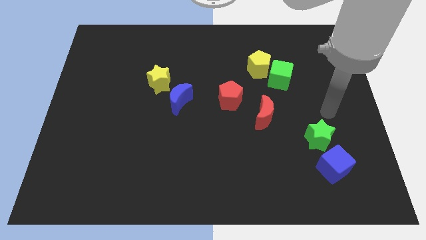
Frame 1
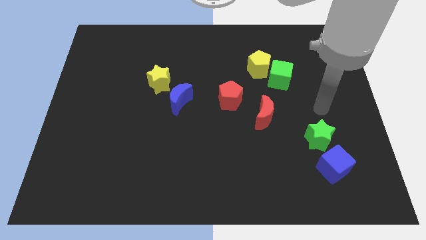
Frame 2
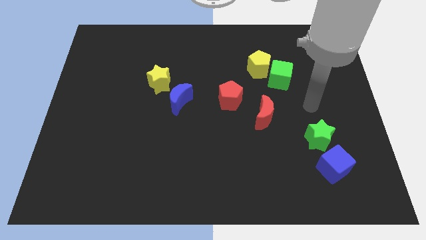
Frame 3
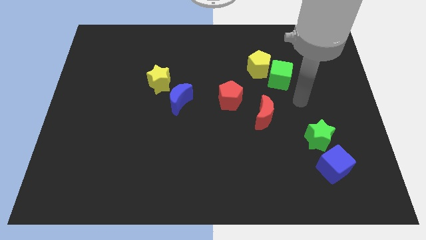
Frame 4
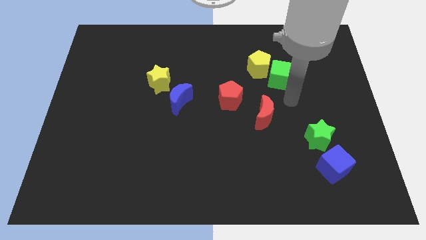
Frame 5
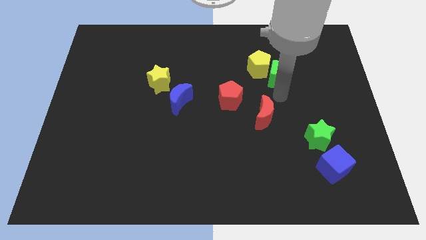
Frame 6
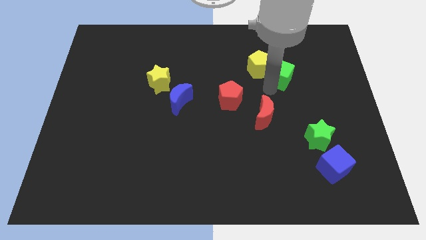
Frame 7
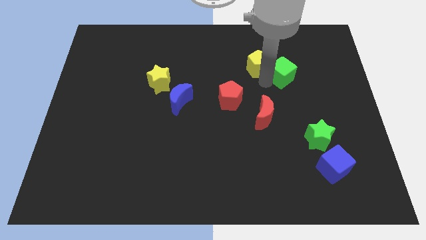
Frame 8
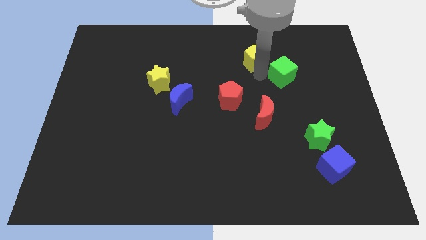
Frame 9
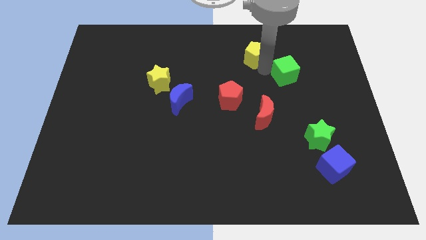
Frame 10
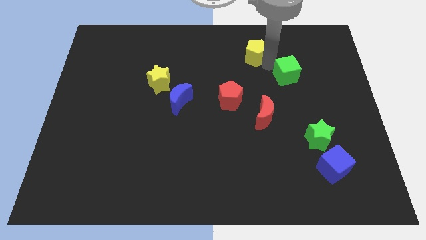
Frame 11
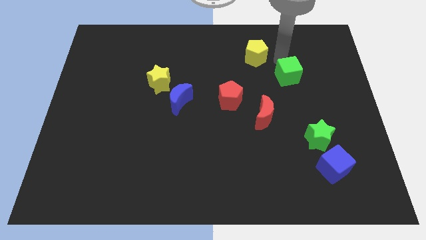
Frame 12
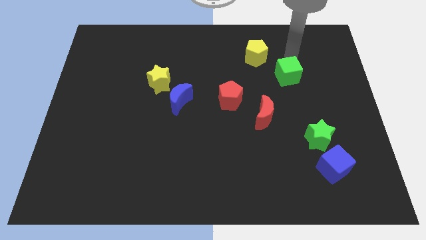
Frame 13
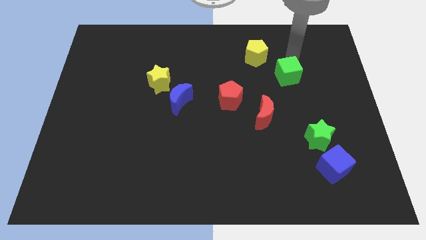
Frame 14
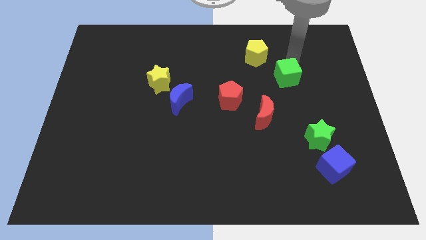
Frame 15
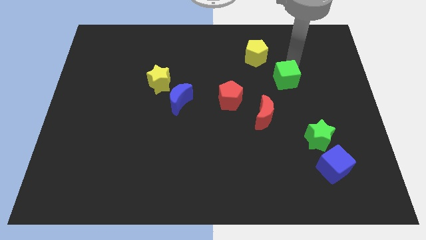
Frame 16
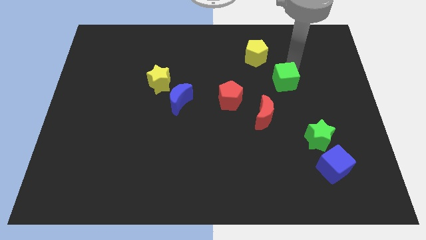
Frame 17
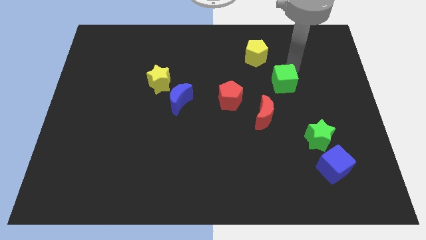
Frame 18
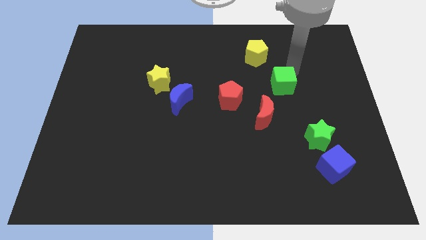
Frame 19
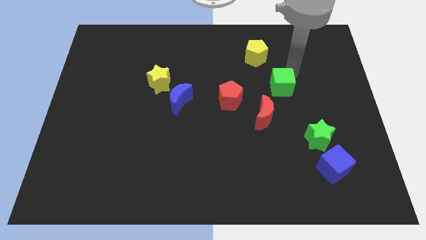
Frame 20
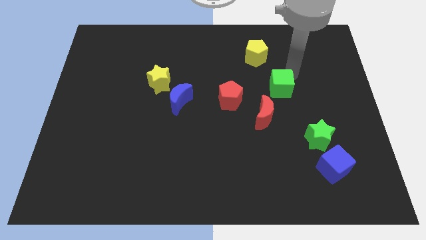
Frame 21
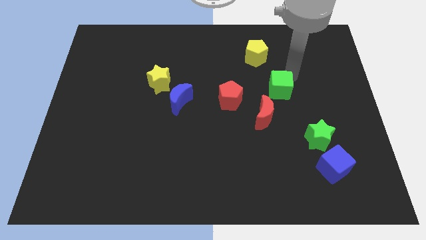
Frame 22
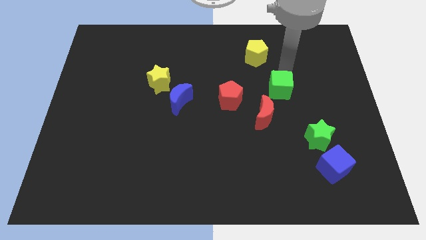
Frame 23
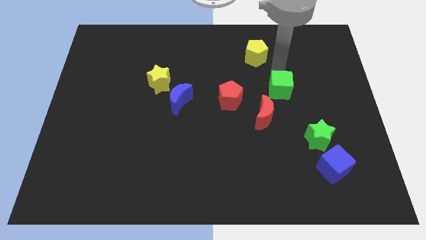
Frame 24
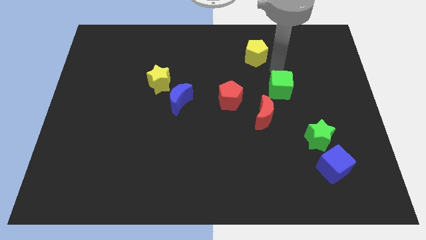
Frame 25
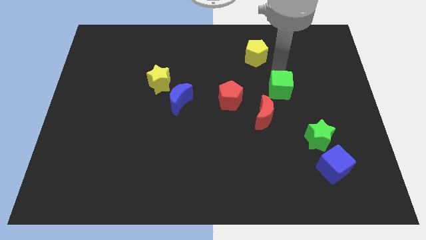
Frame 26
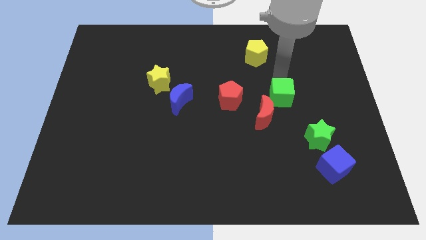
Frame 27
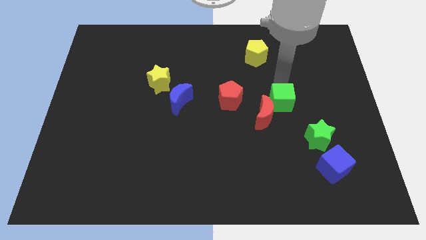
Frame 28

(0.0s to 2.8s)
slide the green cube a little down

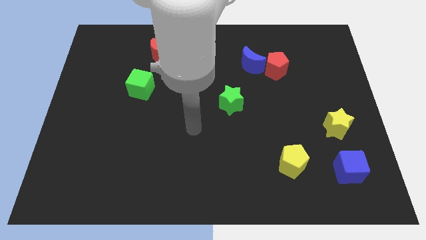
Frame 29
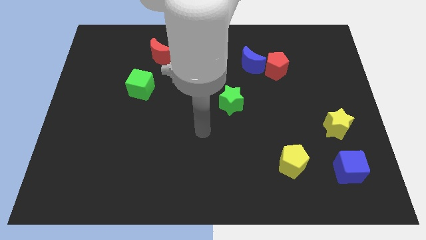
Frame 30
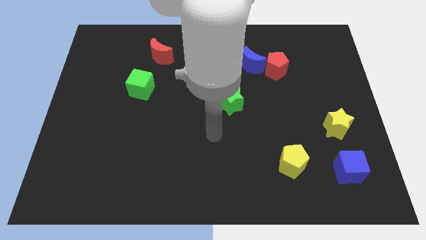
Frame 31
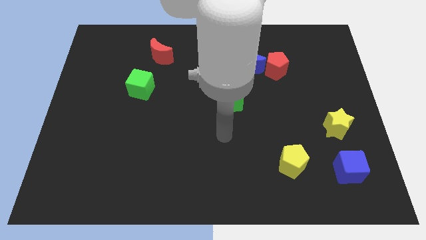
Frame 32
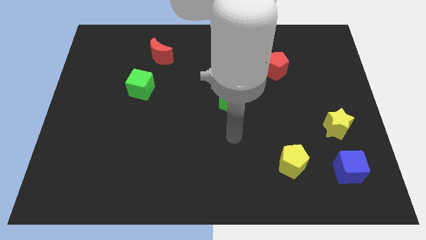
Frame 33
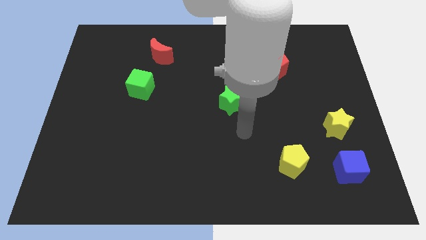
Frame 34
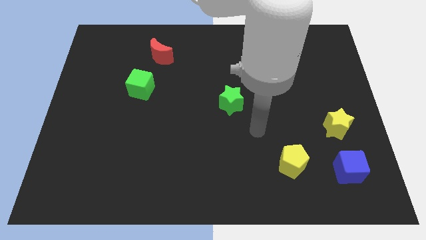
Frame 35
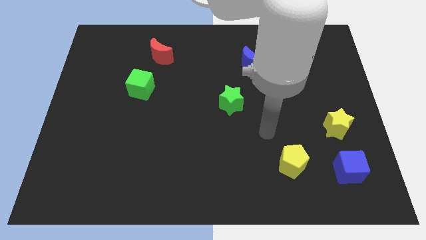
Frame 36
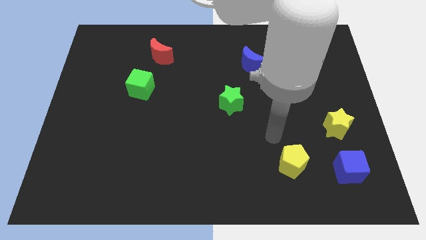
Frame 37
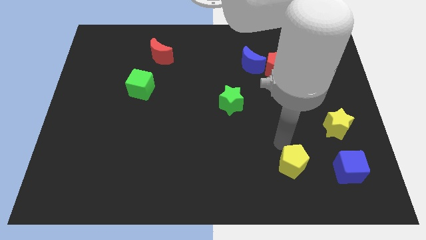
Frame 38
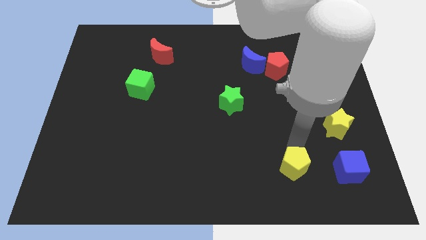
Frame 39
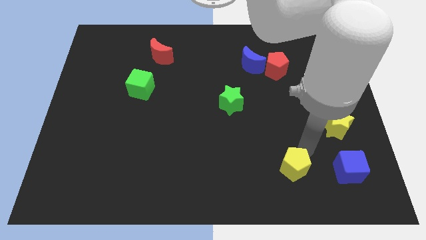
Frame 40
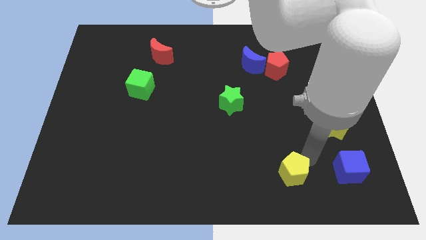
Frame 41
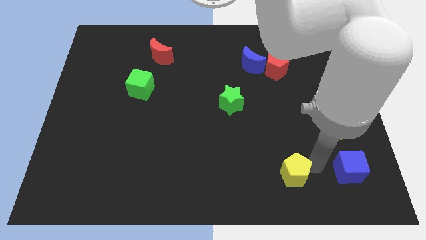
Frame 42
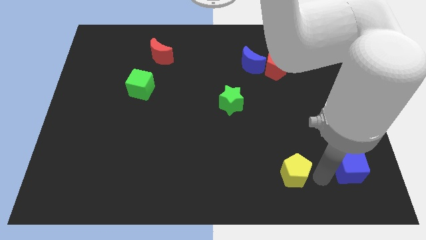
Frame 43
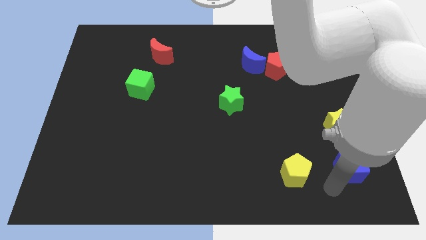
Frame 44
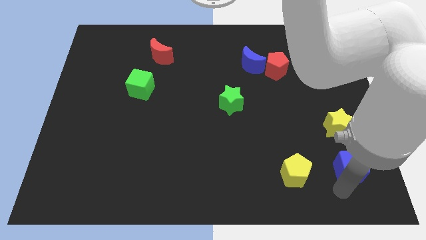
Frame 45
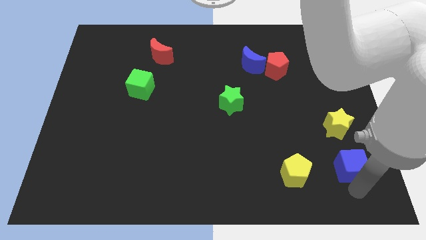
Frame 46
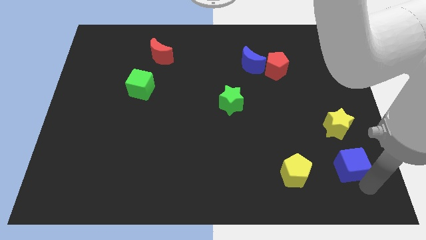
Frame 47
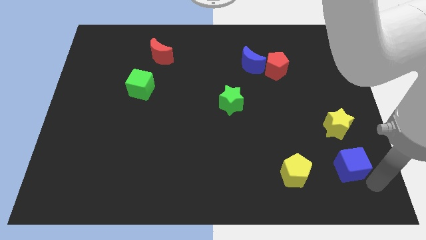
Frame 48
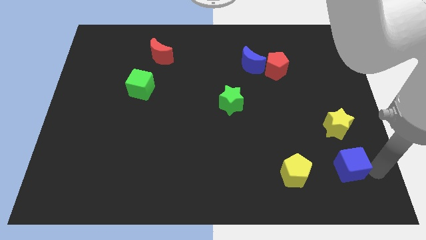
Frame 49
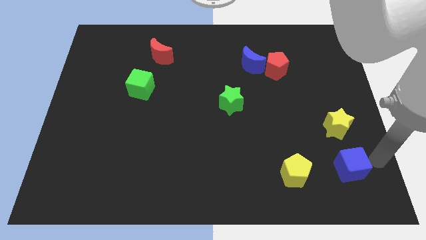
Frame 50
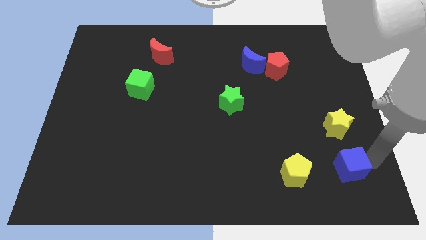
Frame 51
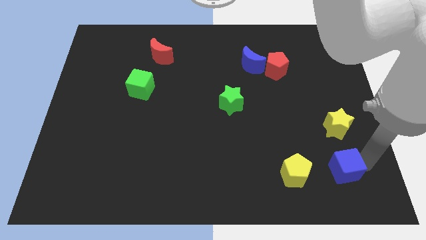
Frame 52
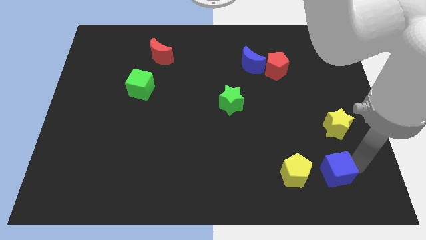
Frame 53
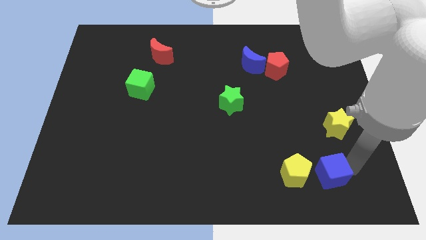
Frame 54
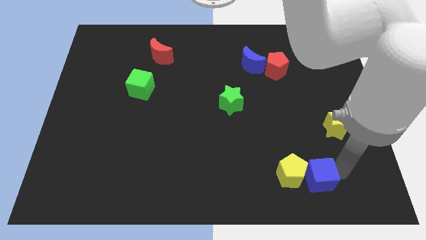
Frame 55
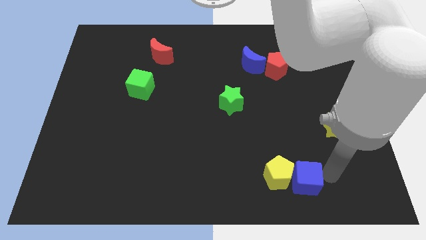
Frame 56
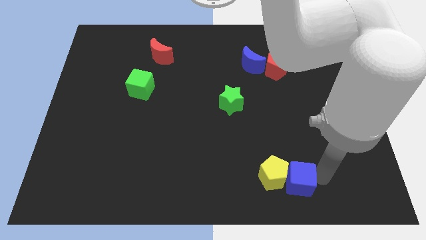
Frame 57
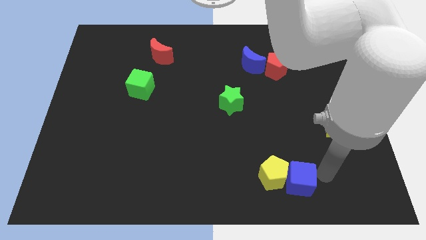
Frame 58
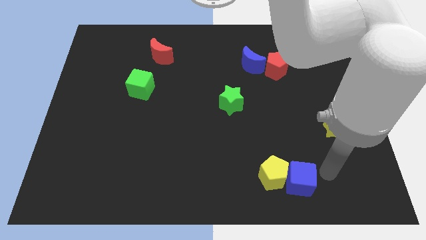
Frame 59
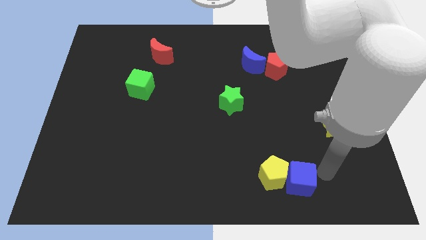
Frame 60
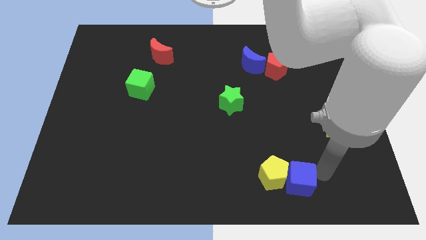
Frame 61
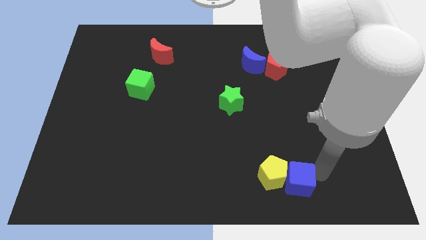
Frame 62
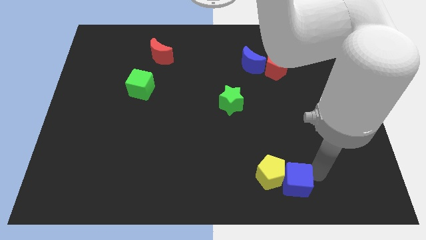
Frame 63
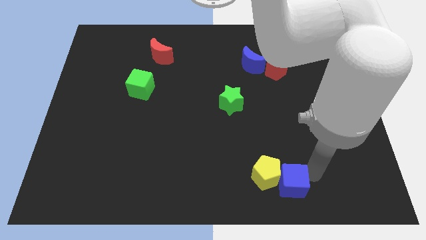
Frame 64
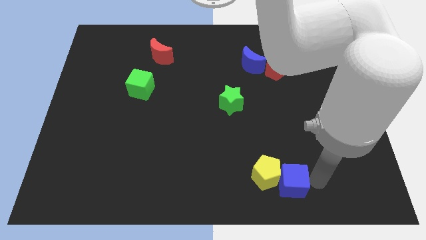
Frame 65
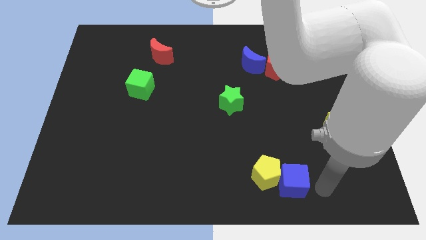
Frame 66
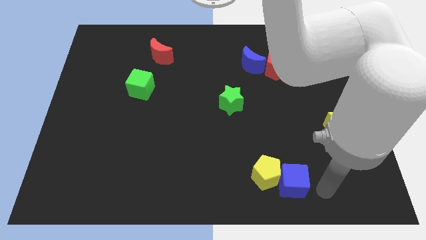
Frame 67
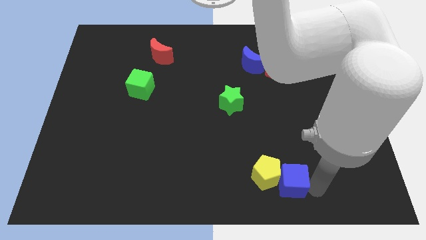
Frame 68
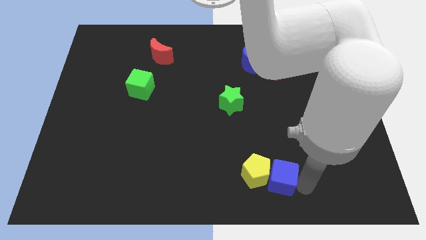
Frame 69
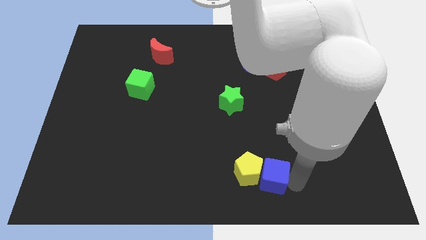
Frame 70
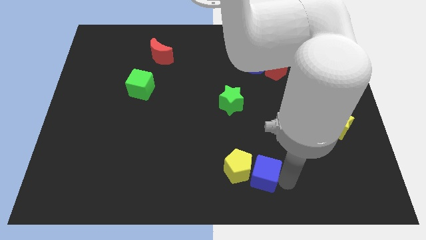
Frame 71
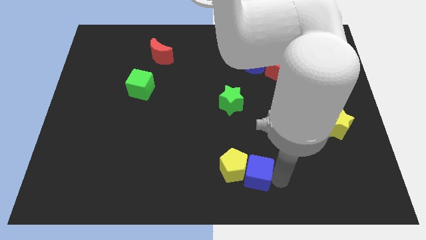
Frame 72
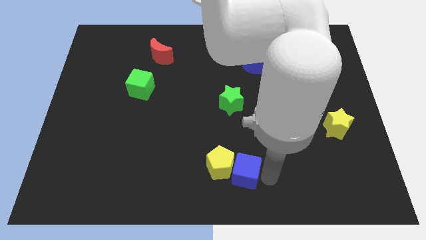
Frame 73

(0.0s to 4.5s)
move the blue cube to the left

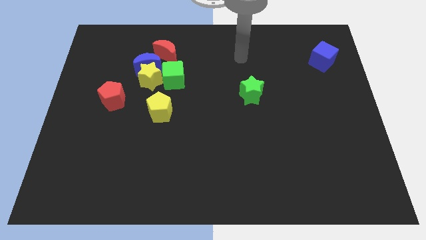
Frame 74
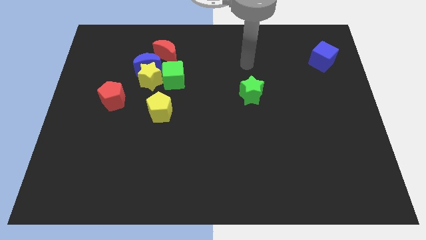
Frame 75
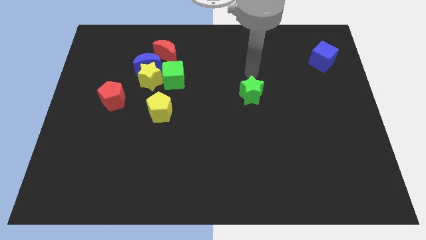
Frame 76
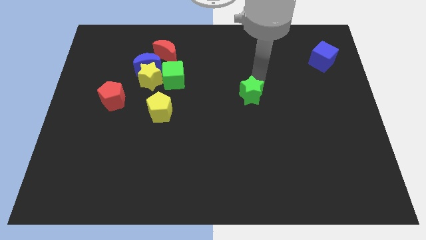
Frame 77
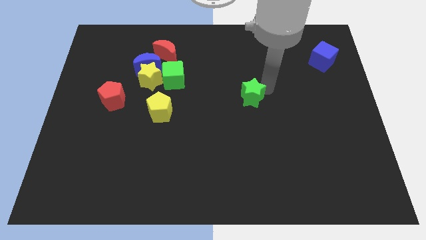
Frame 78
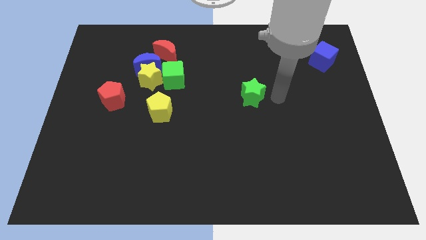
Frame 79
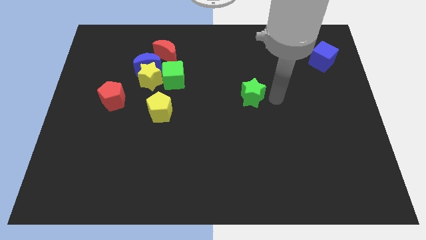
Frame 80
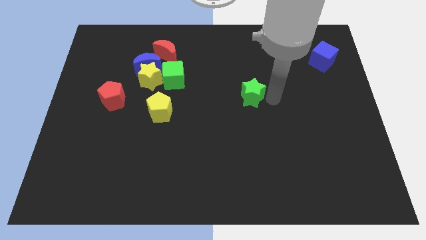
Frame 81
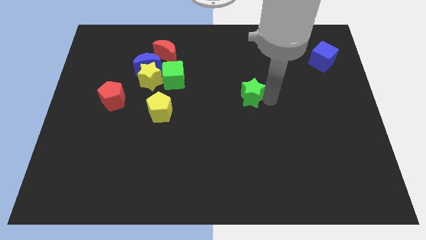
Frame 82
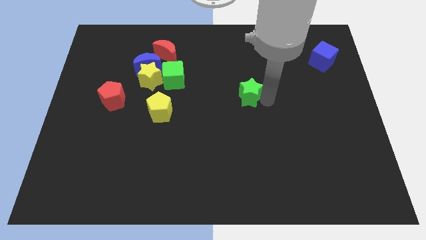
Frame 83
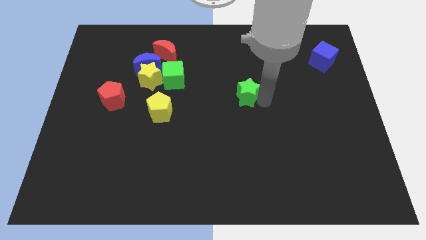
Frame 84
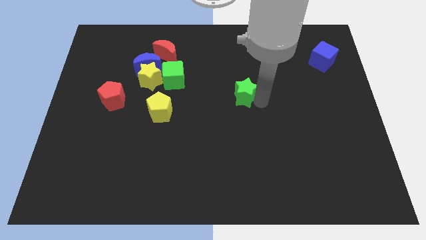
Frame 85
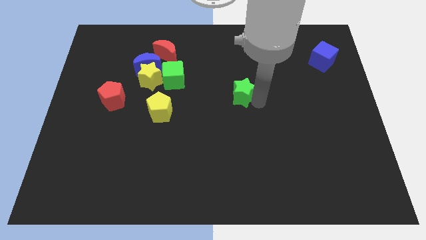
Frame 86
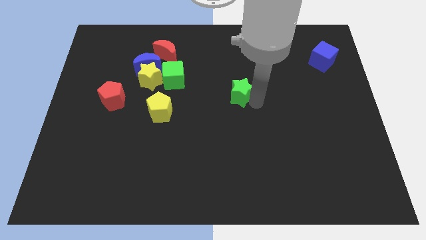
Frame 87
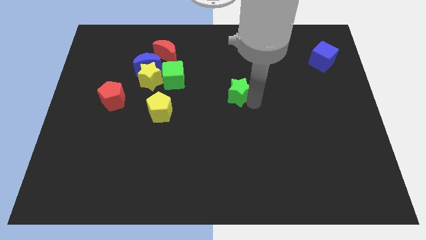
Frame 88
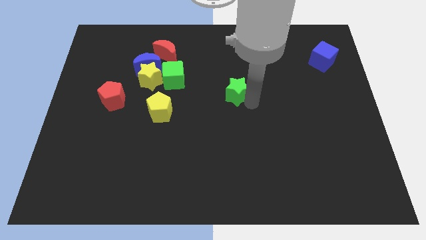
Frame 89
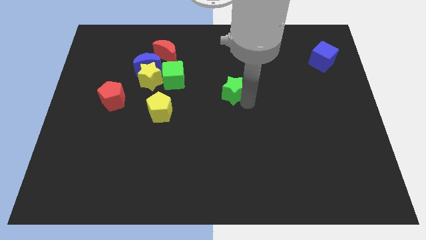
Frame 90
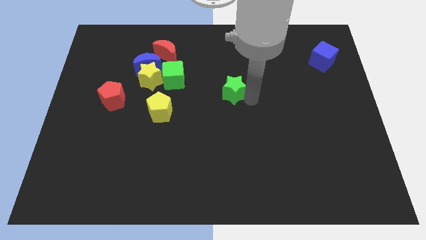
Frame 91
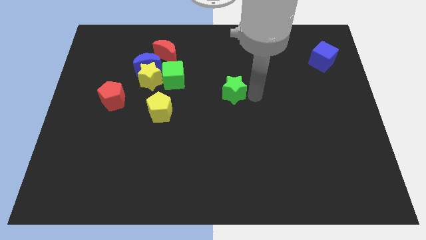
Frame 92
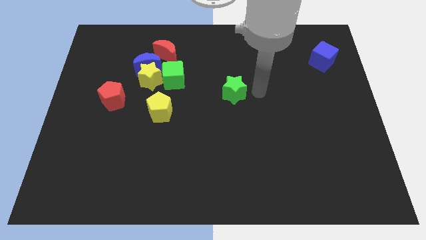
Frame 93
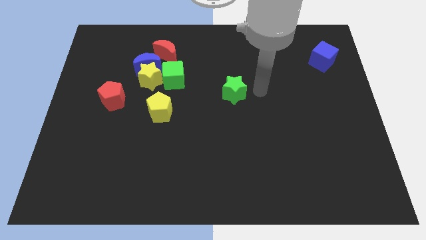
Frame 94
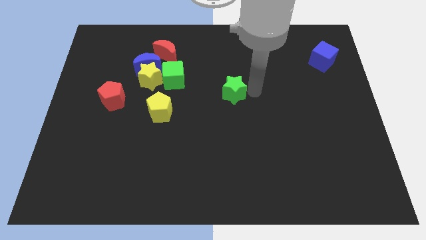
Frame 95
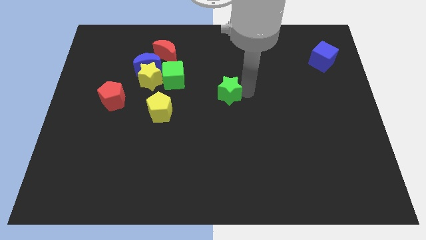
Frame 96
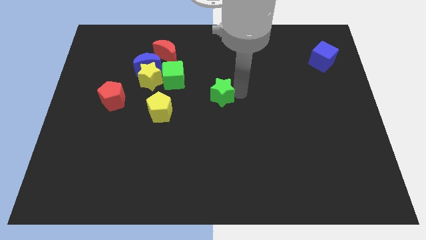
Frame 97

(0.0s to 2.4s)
move the green star to the left a little bit
